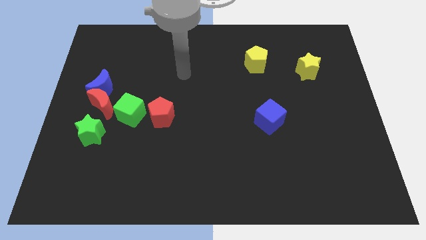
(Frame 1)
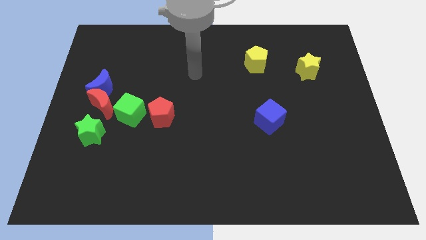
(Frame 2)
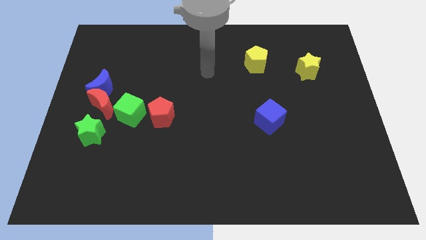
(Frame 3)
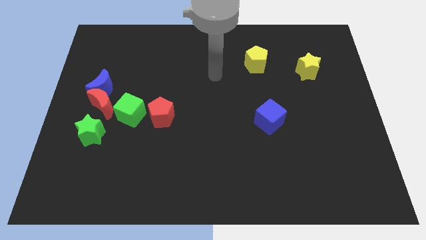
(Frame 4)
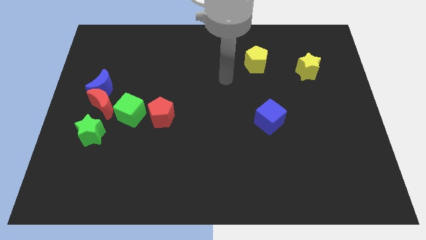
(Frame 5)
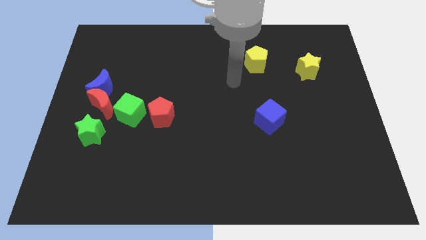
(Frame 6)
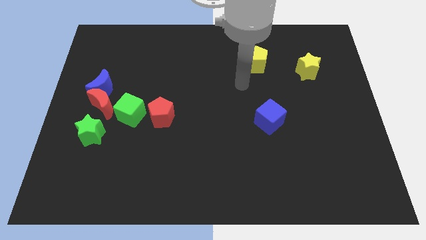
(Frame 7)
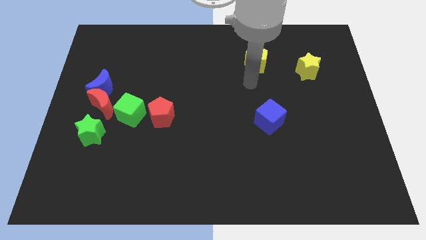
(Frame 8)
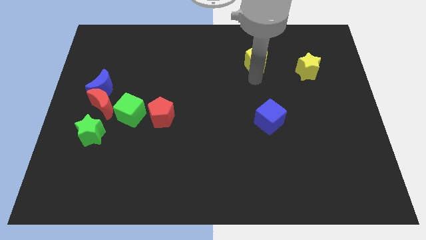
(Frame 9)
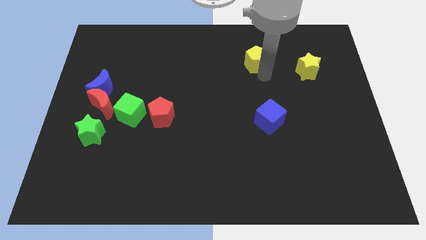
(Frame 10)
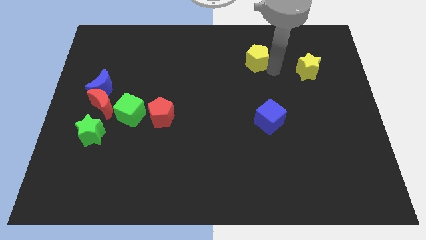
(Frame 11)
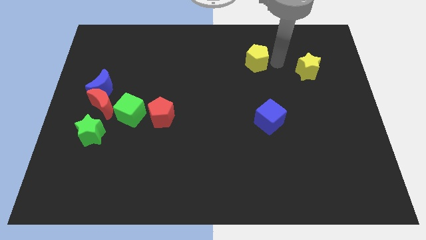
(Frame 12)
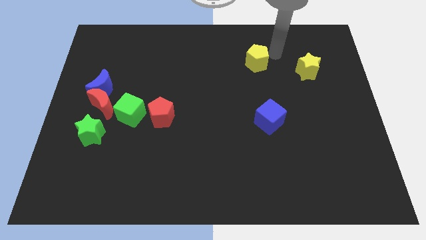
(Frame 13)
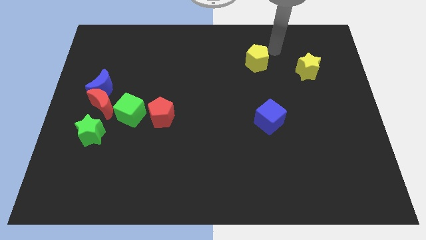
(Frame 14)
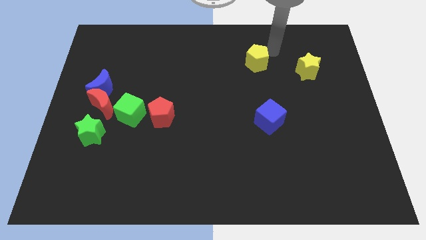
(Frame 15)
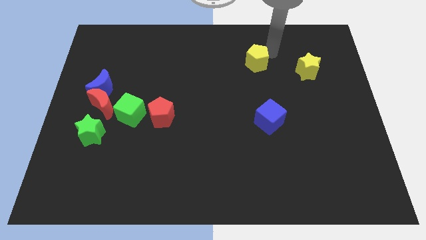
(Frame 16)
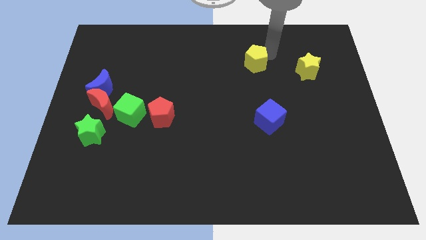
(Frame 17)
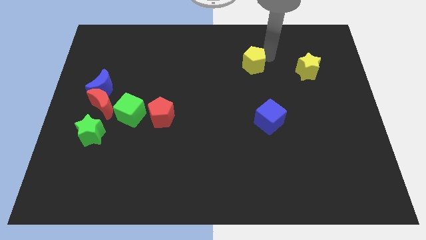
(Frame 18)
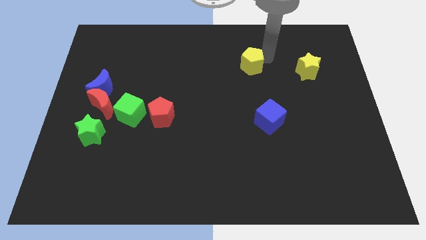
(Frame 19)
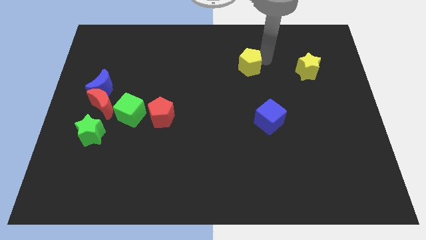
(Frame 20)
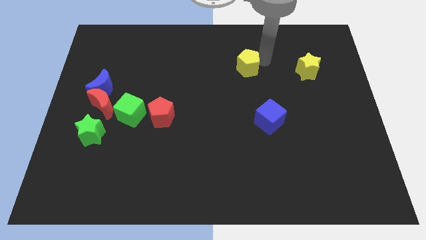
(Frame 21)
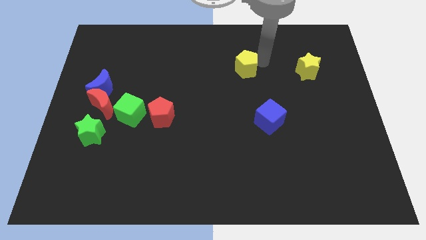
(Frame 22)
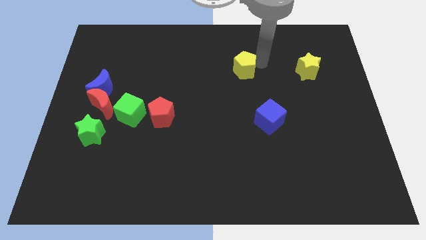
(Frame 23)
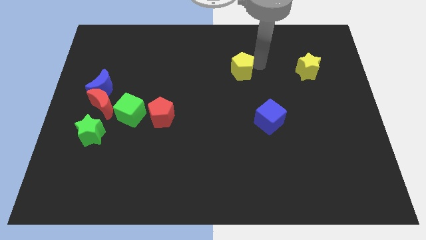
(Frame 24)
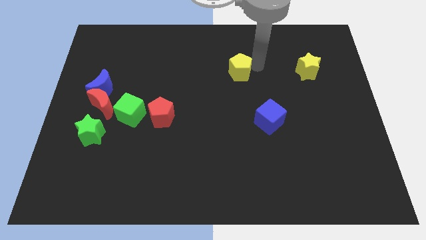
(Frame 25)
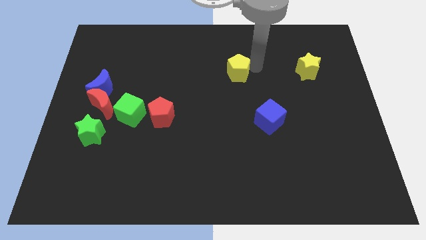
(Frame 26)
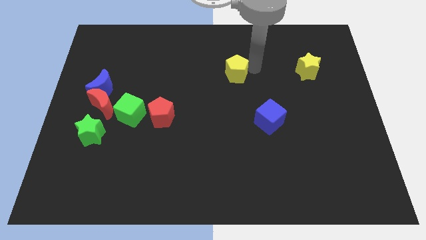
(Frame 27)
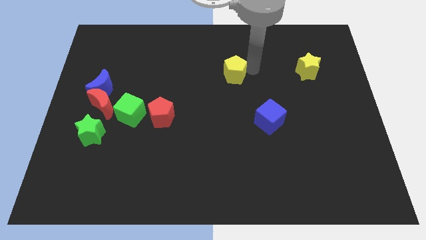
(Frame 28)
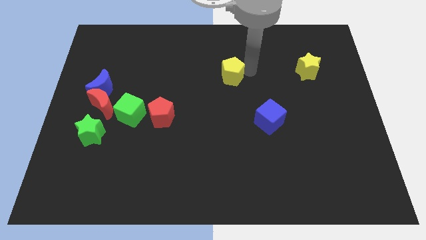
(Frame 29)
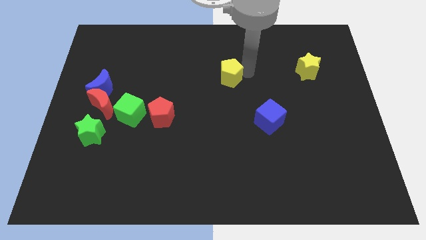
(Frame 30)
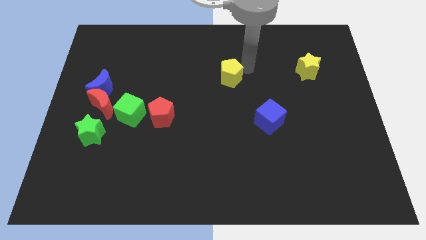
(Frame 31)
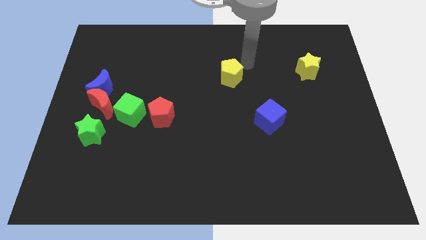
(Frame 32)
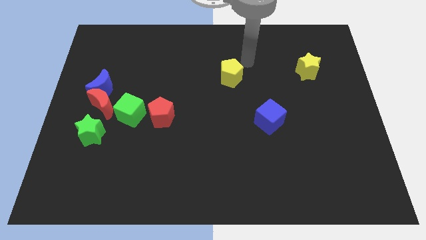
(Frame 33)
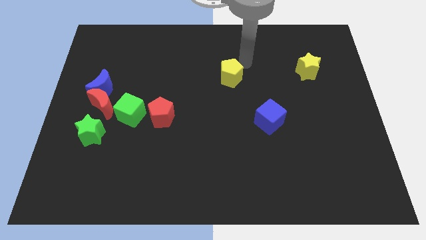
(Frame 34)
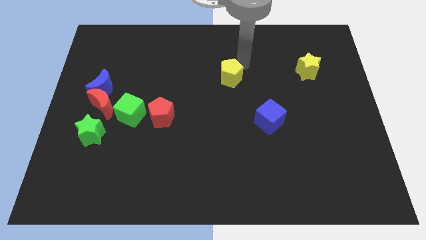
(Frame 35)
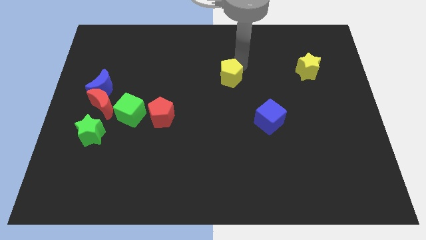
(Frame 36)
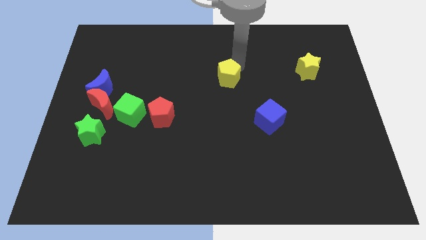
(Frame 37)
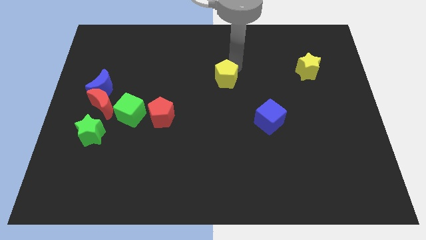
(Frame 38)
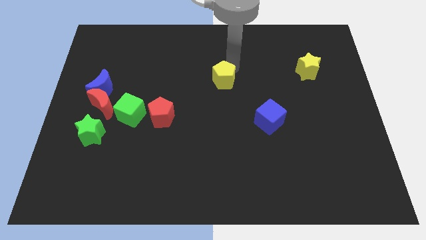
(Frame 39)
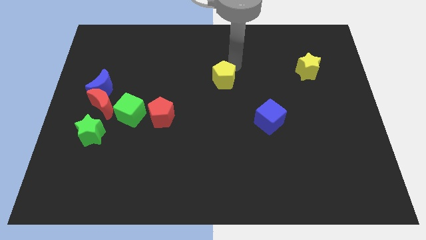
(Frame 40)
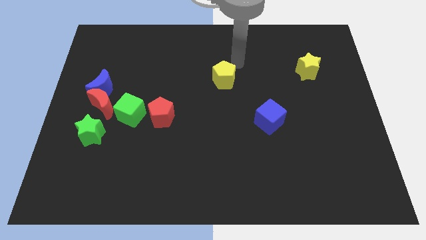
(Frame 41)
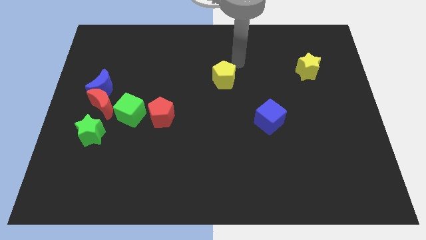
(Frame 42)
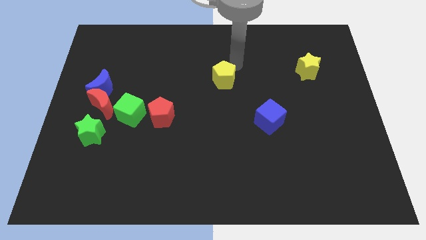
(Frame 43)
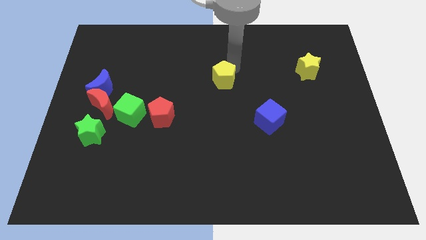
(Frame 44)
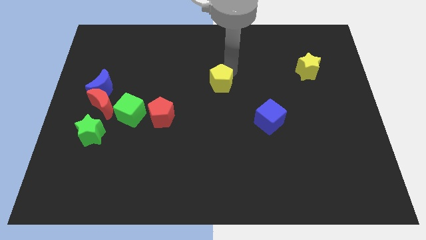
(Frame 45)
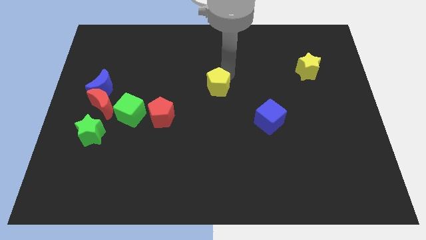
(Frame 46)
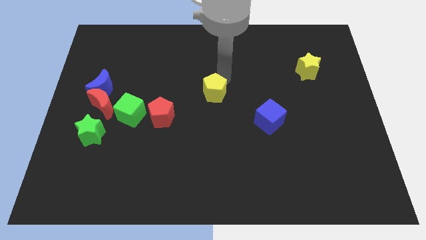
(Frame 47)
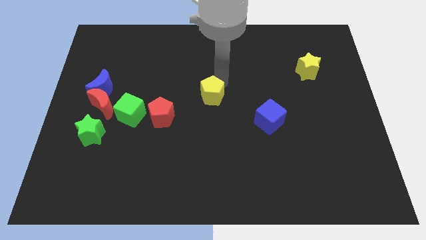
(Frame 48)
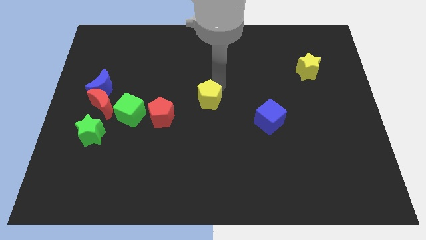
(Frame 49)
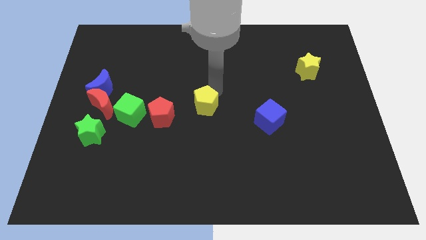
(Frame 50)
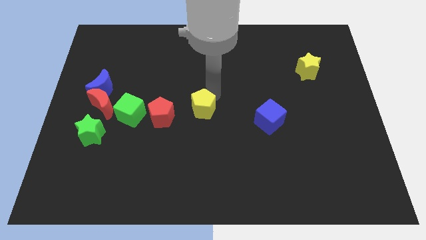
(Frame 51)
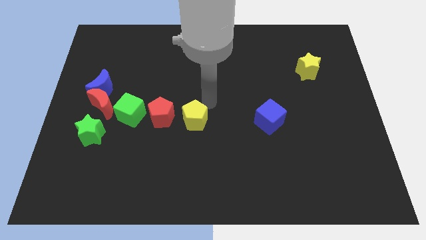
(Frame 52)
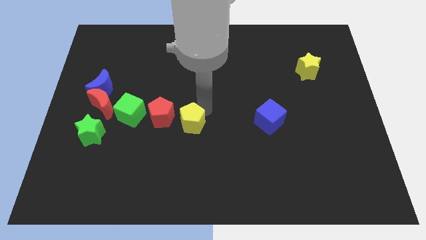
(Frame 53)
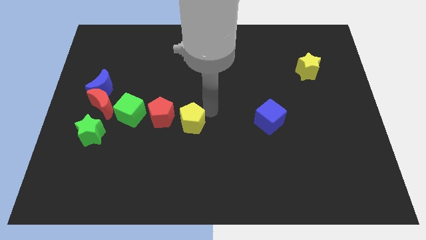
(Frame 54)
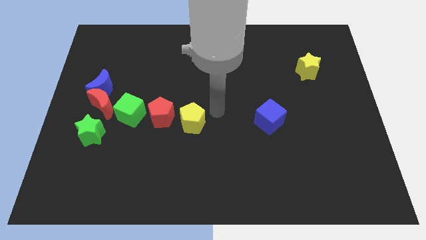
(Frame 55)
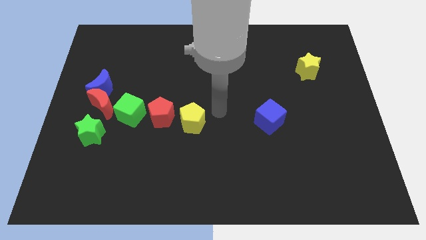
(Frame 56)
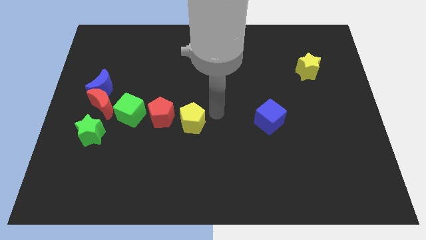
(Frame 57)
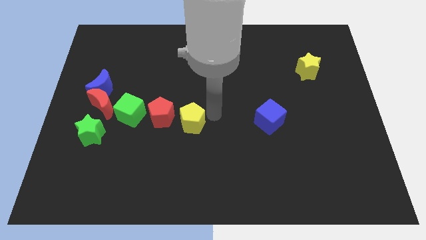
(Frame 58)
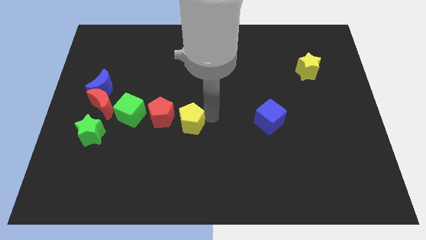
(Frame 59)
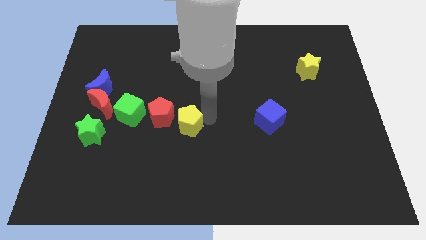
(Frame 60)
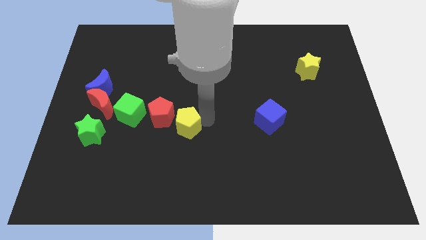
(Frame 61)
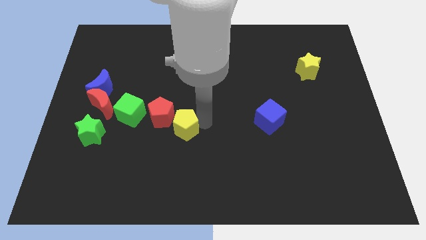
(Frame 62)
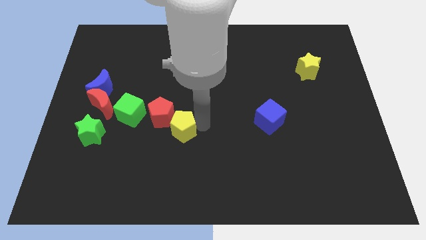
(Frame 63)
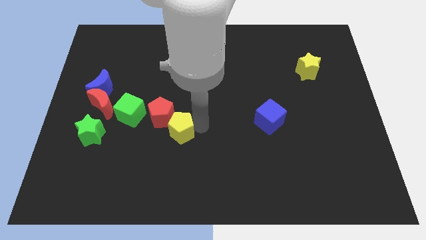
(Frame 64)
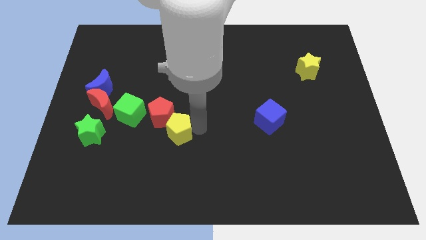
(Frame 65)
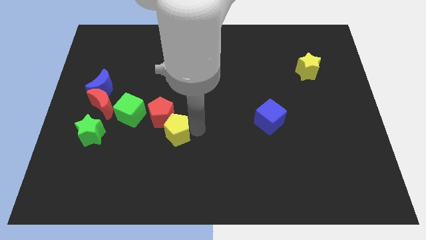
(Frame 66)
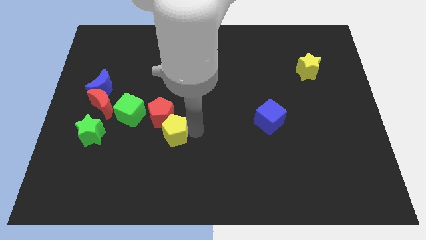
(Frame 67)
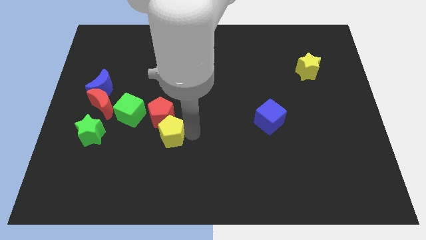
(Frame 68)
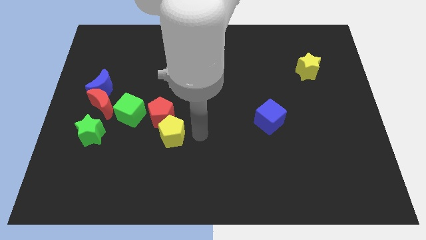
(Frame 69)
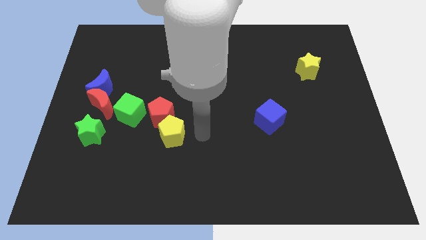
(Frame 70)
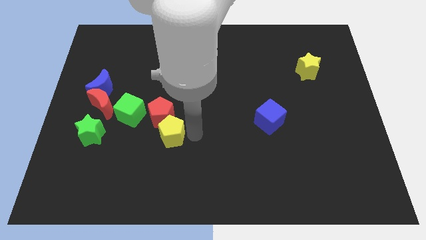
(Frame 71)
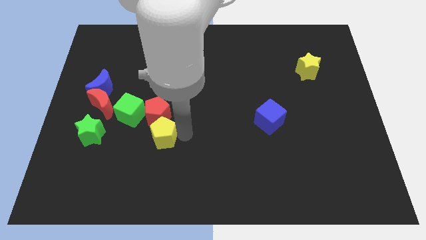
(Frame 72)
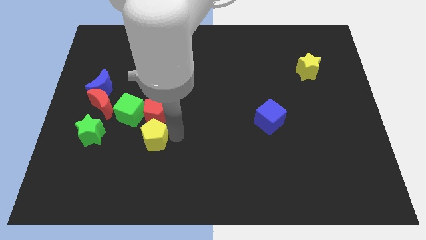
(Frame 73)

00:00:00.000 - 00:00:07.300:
push the yellow pentagon to the bottom left side of the red pentagon
